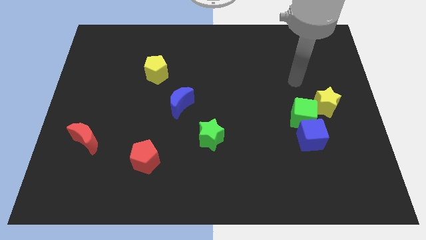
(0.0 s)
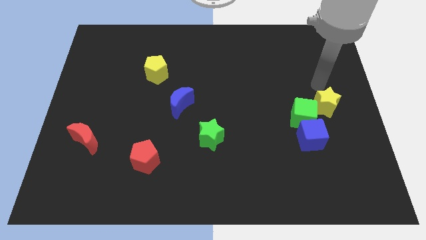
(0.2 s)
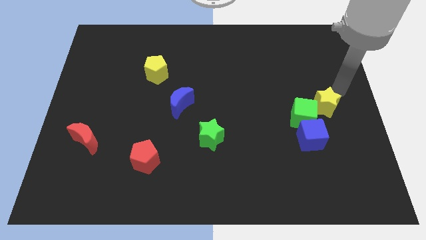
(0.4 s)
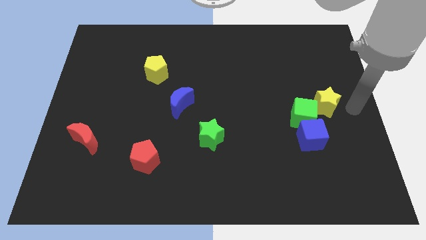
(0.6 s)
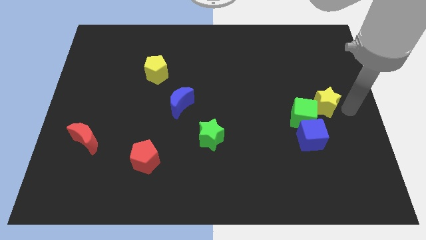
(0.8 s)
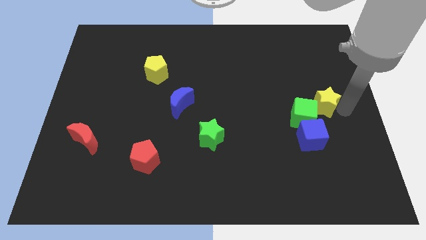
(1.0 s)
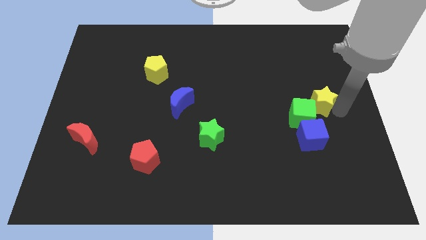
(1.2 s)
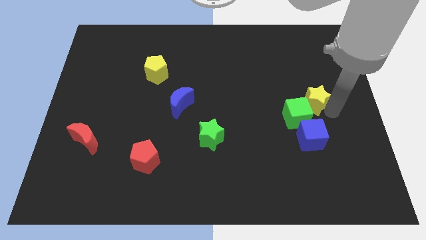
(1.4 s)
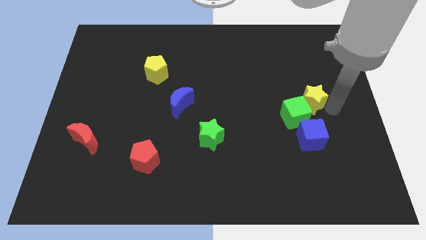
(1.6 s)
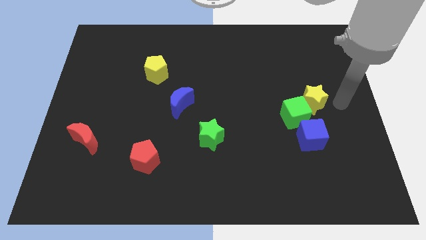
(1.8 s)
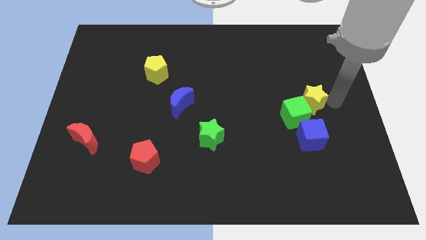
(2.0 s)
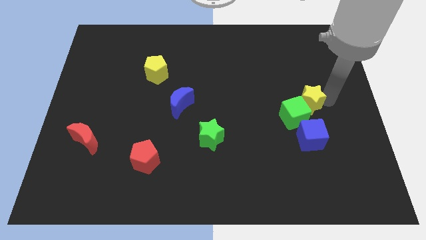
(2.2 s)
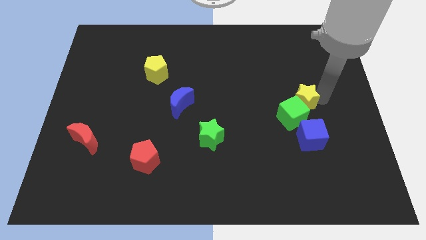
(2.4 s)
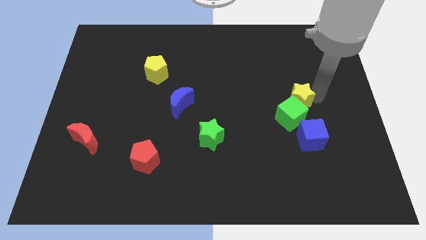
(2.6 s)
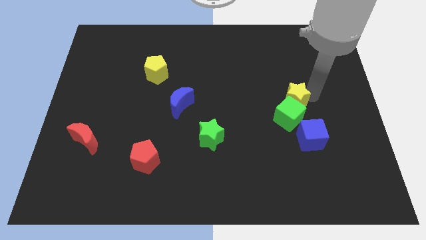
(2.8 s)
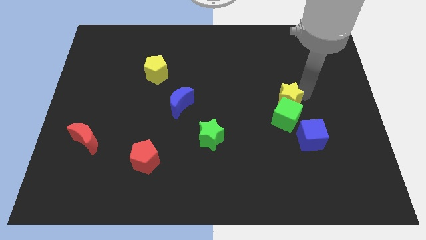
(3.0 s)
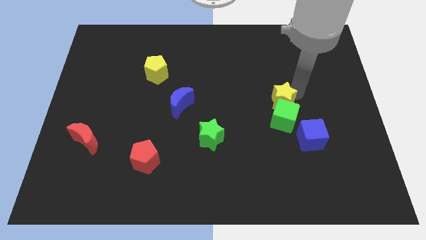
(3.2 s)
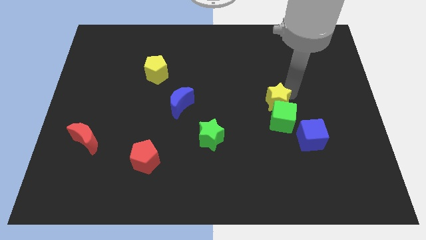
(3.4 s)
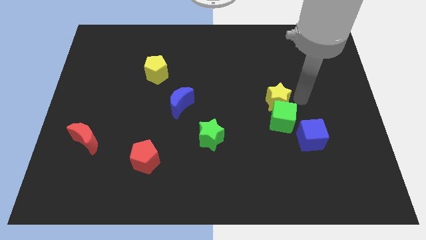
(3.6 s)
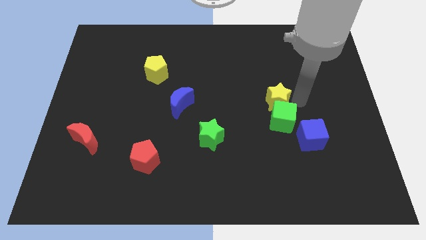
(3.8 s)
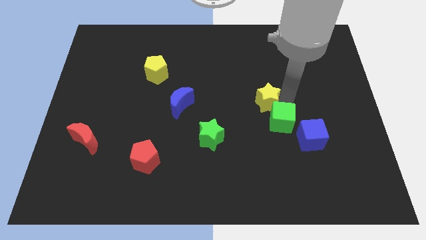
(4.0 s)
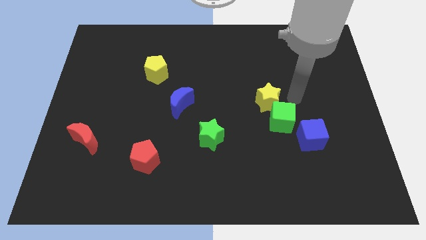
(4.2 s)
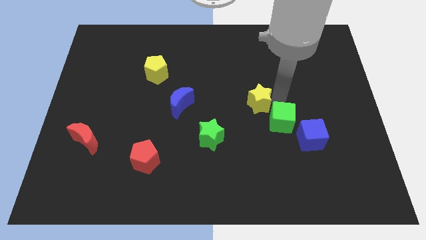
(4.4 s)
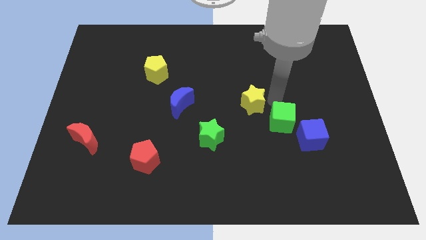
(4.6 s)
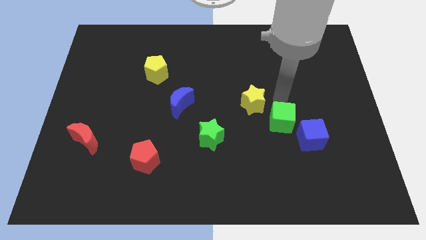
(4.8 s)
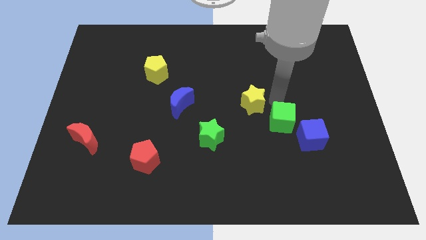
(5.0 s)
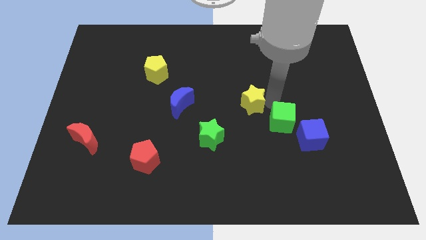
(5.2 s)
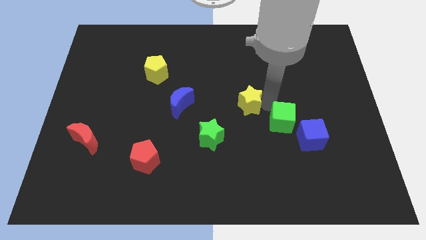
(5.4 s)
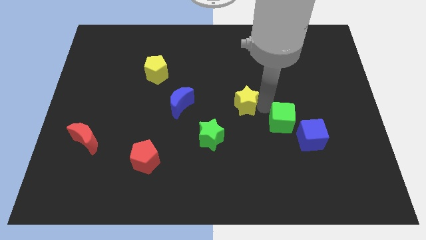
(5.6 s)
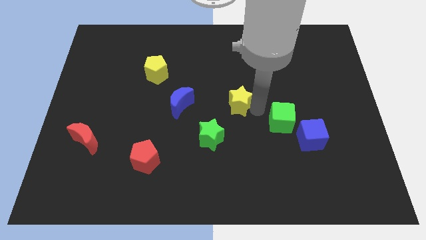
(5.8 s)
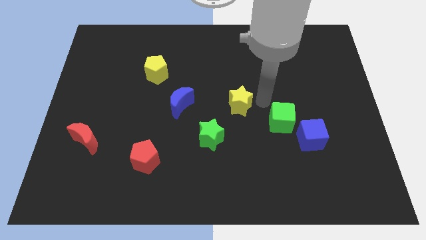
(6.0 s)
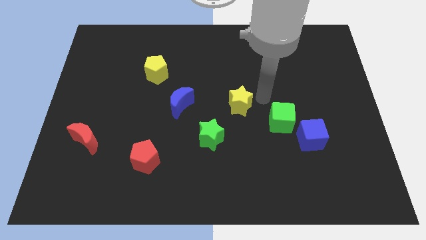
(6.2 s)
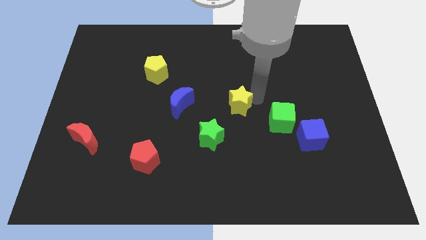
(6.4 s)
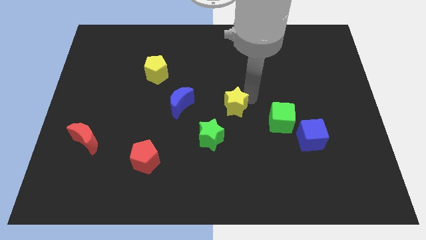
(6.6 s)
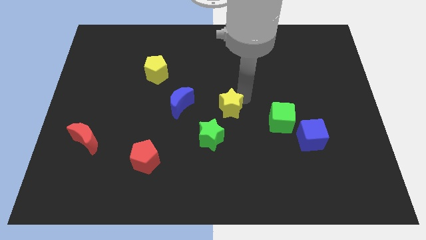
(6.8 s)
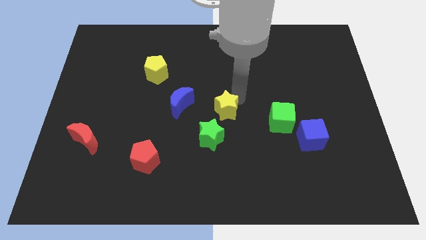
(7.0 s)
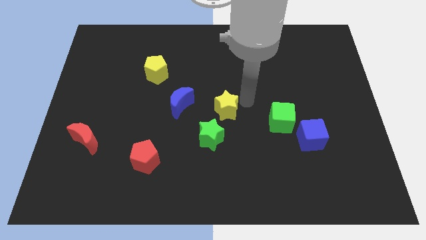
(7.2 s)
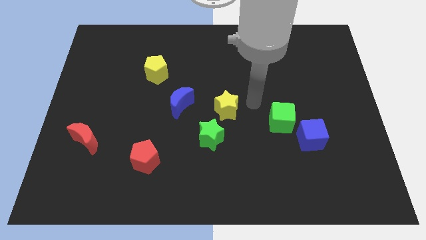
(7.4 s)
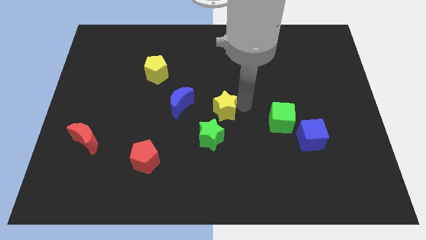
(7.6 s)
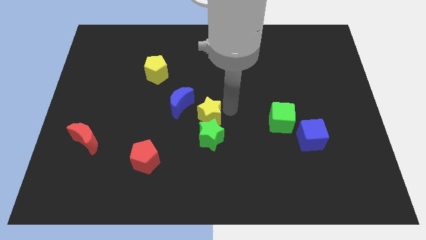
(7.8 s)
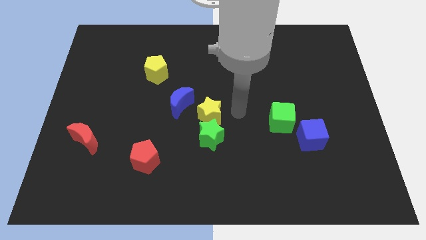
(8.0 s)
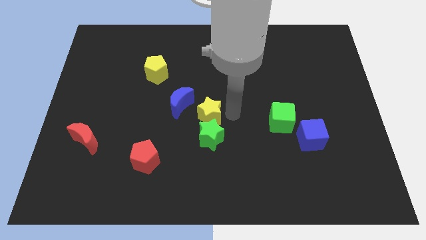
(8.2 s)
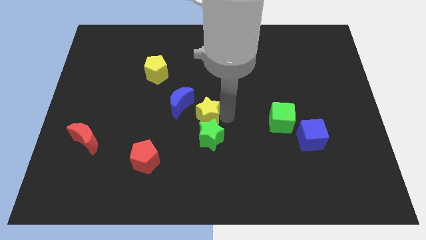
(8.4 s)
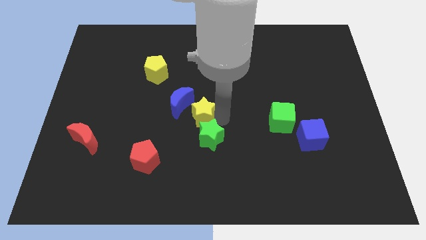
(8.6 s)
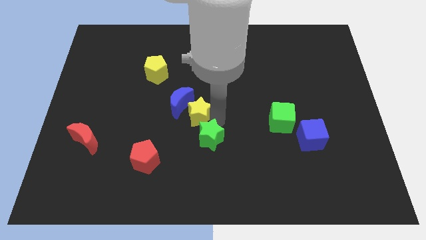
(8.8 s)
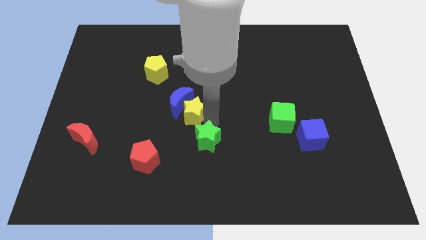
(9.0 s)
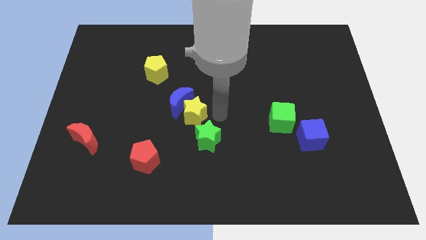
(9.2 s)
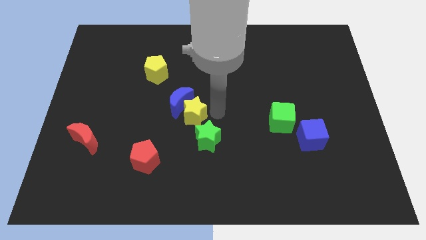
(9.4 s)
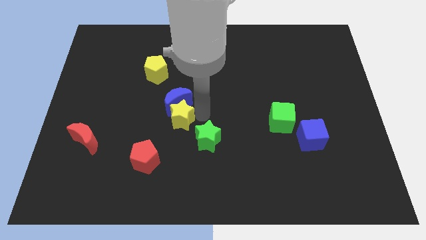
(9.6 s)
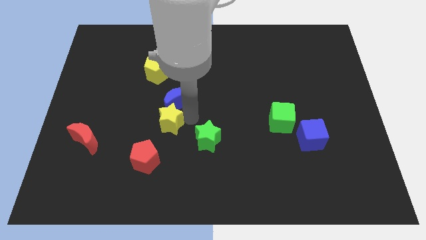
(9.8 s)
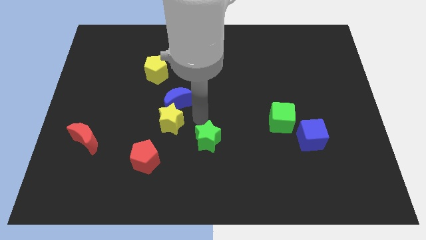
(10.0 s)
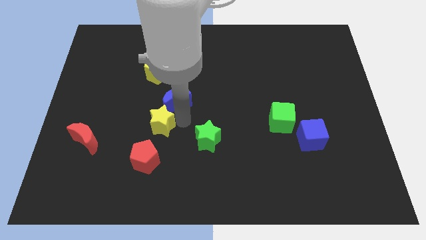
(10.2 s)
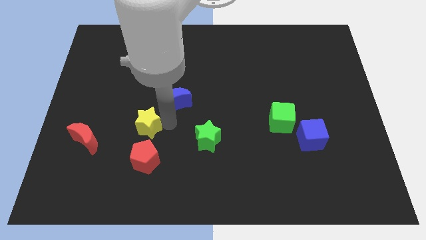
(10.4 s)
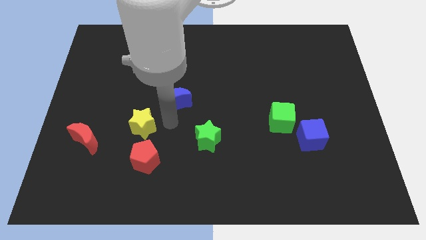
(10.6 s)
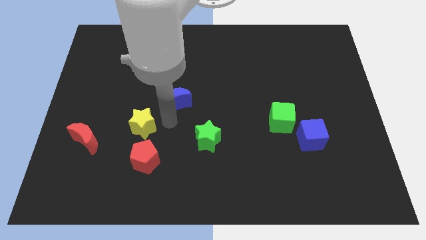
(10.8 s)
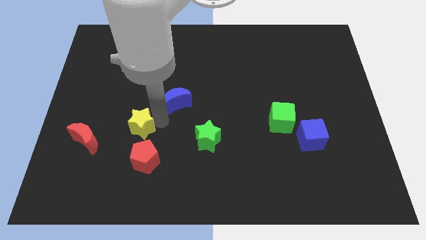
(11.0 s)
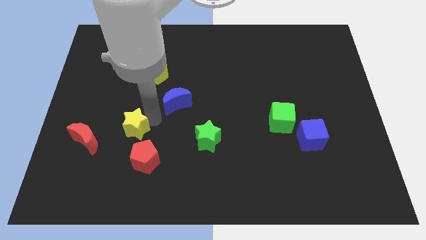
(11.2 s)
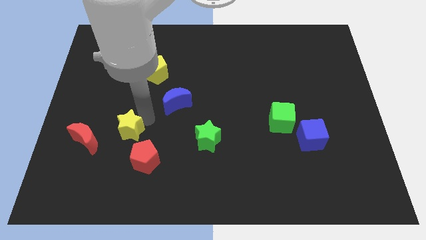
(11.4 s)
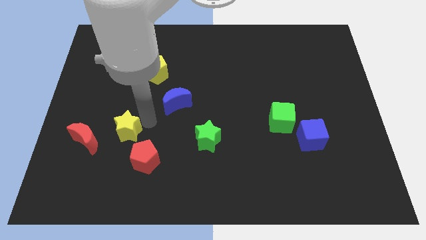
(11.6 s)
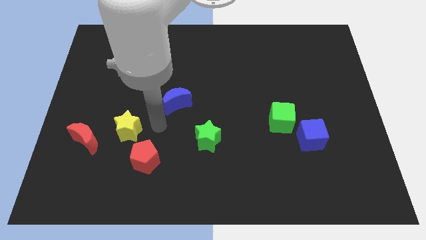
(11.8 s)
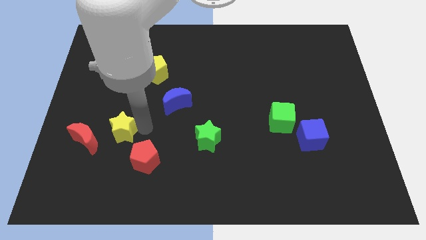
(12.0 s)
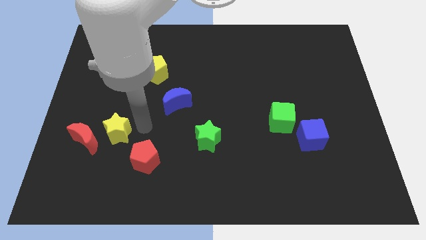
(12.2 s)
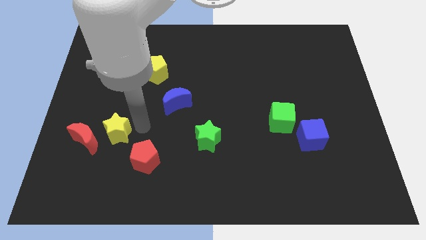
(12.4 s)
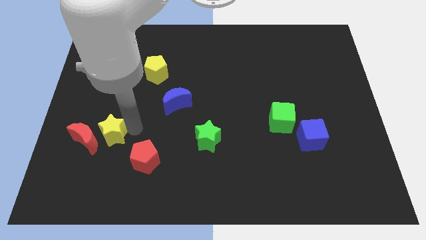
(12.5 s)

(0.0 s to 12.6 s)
move the yellow star next to the red moon

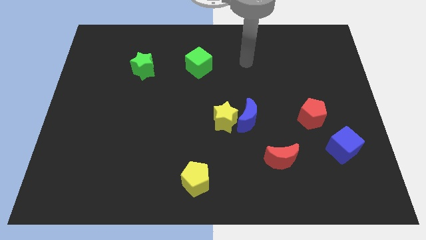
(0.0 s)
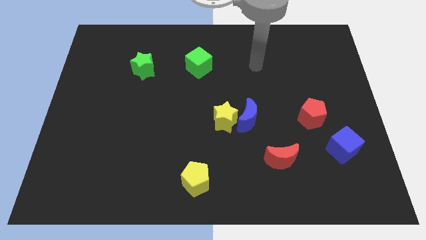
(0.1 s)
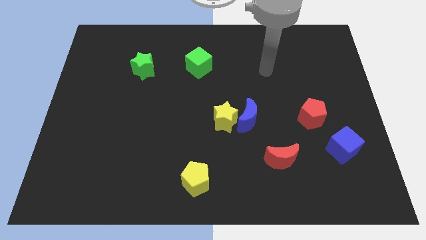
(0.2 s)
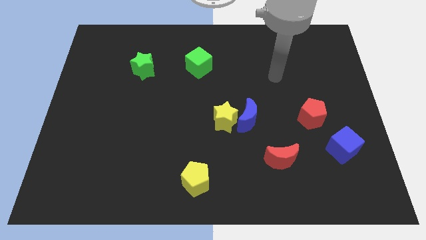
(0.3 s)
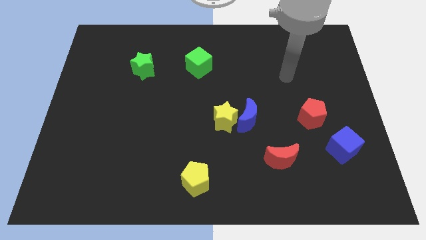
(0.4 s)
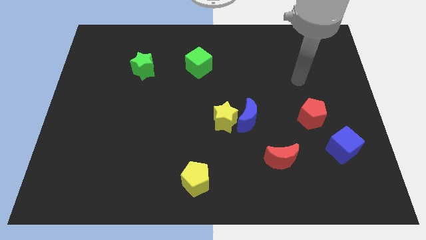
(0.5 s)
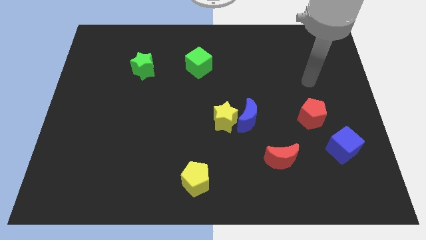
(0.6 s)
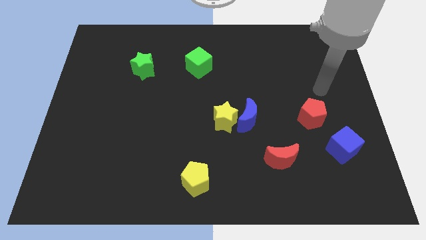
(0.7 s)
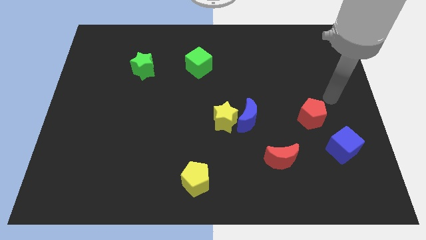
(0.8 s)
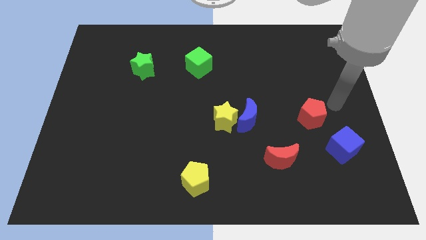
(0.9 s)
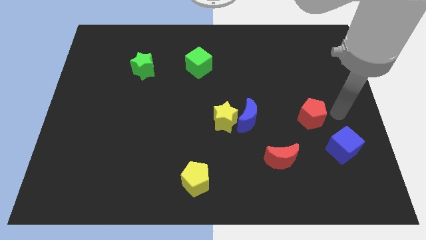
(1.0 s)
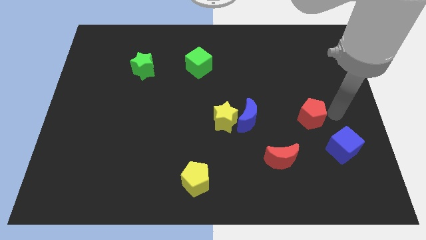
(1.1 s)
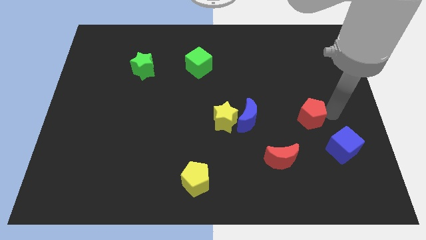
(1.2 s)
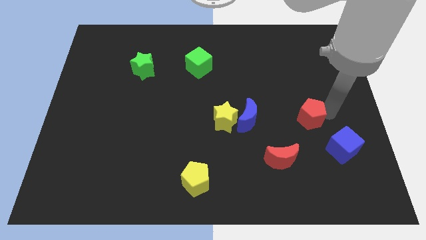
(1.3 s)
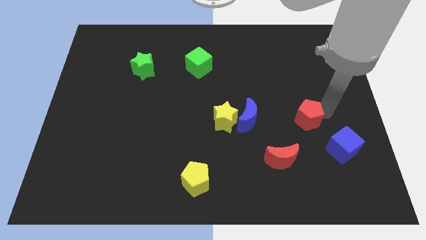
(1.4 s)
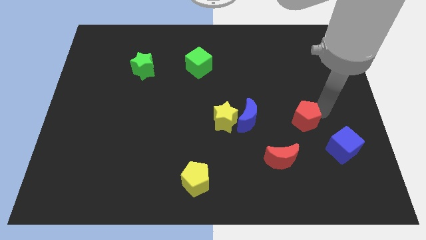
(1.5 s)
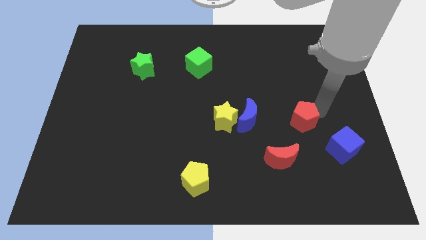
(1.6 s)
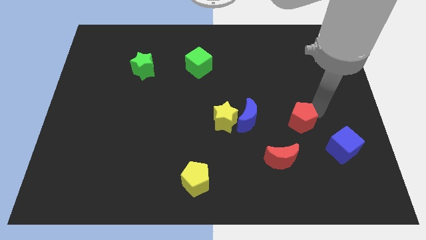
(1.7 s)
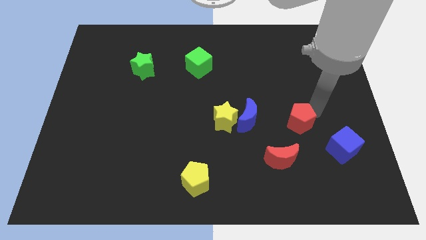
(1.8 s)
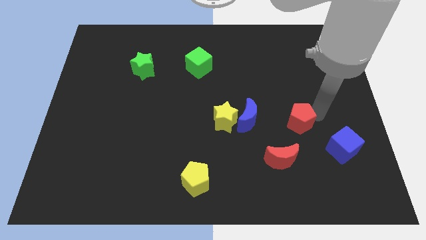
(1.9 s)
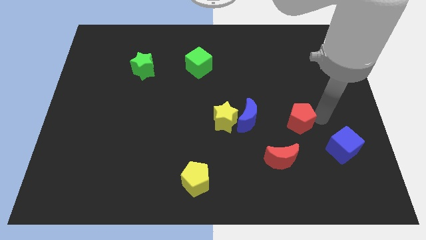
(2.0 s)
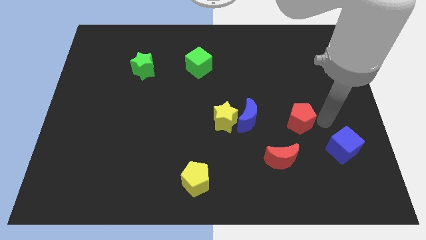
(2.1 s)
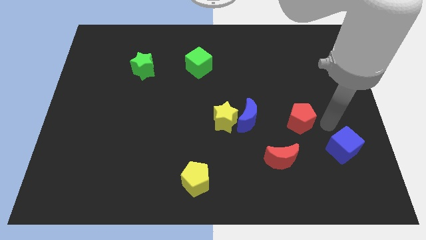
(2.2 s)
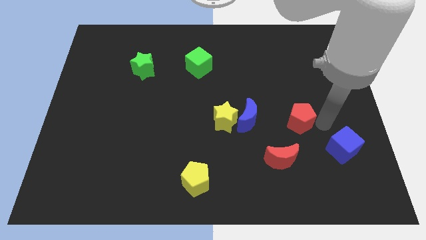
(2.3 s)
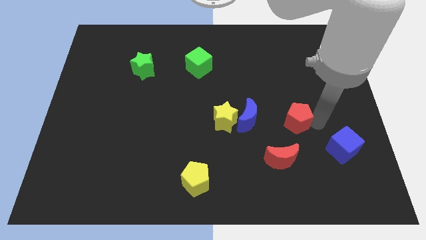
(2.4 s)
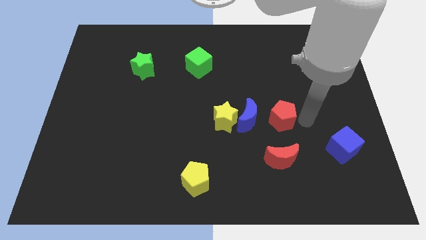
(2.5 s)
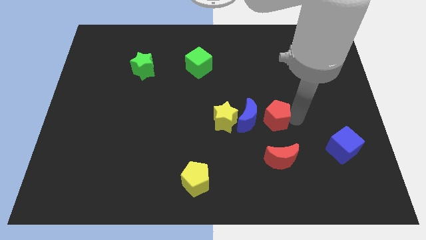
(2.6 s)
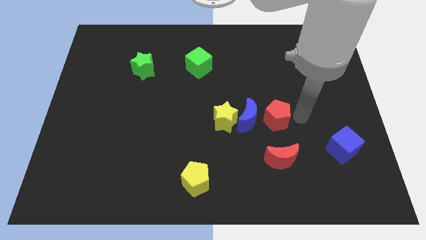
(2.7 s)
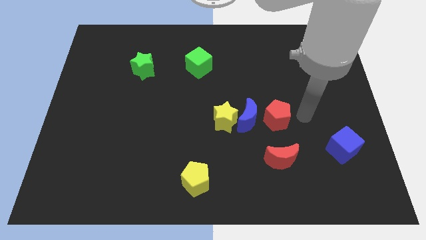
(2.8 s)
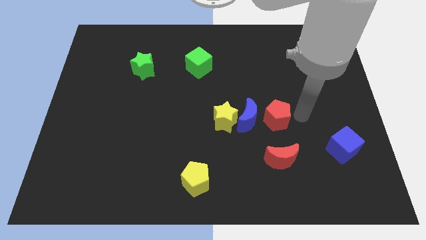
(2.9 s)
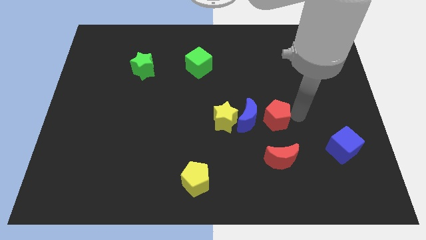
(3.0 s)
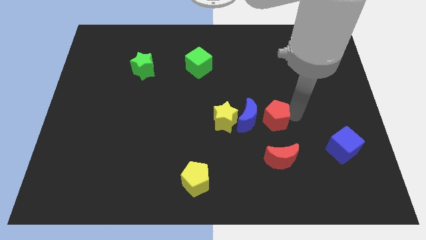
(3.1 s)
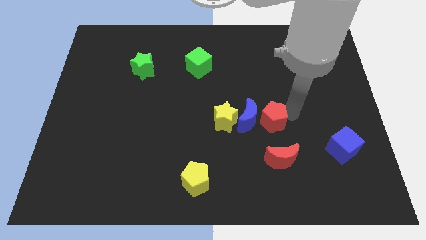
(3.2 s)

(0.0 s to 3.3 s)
slide the red pentagon towards the blue moon
